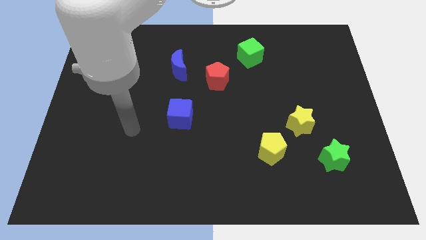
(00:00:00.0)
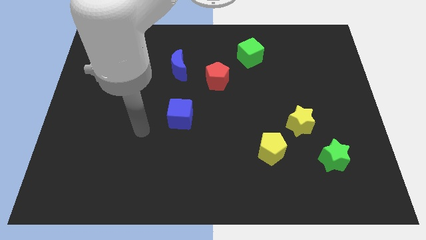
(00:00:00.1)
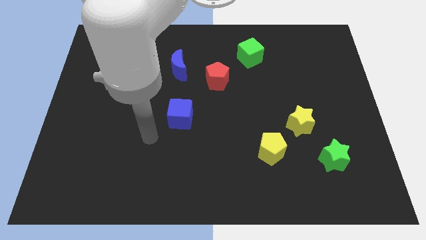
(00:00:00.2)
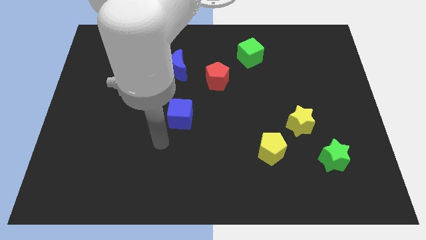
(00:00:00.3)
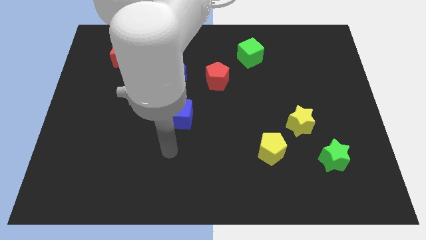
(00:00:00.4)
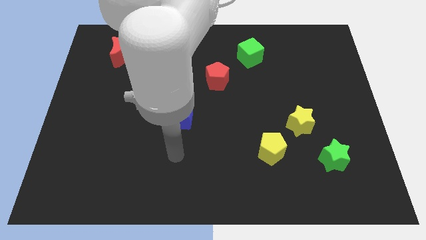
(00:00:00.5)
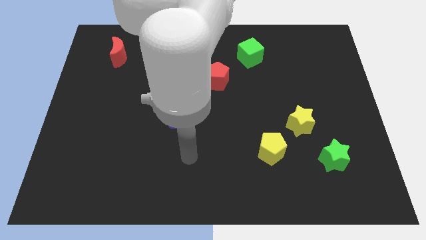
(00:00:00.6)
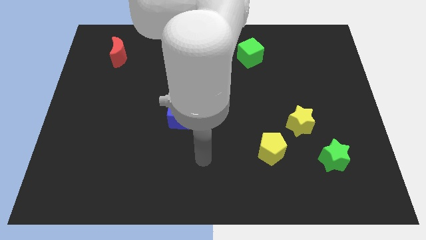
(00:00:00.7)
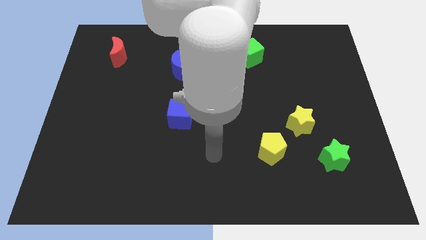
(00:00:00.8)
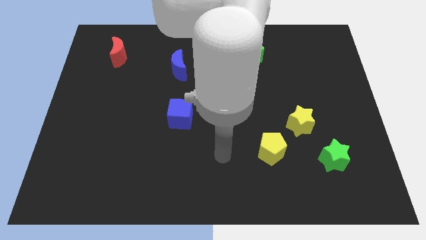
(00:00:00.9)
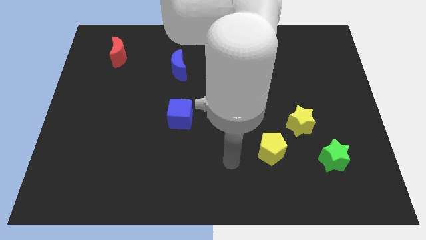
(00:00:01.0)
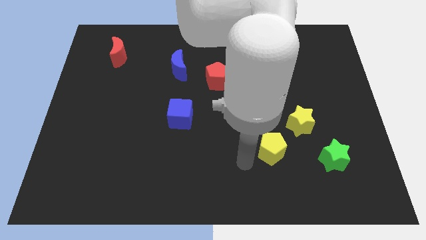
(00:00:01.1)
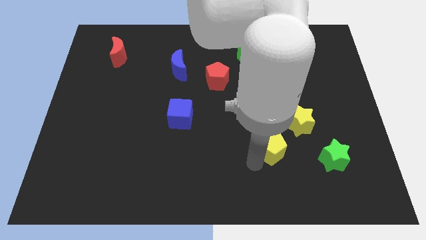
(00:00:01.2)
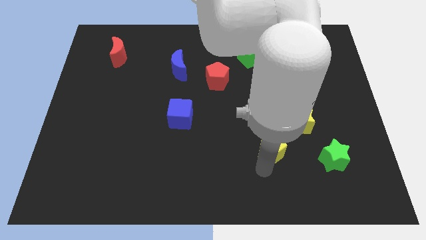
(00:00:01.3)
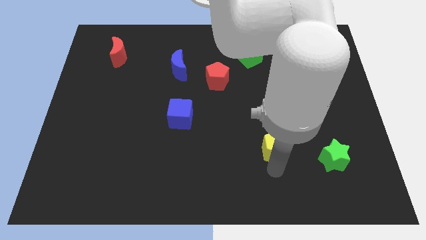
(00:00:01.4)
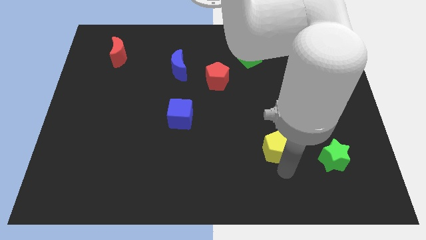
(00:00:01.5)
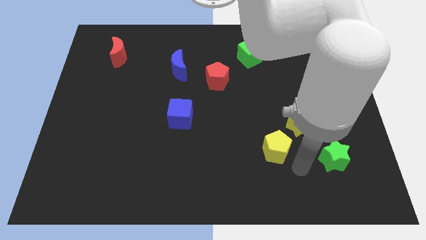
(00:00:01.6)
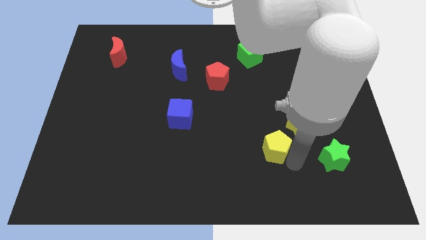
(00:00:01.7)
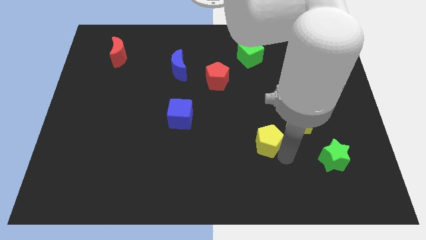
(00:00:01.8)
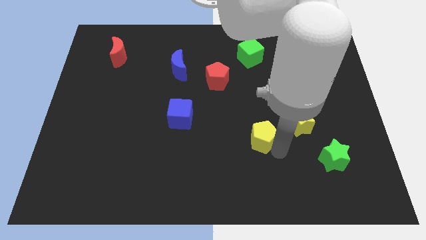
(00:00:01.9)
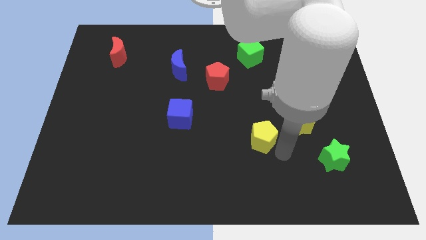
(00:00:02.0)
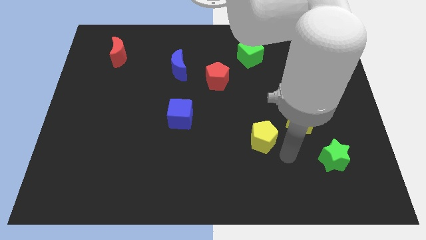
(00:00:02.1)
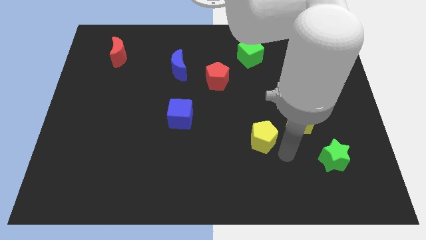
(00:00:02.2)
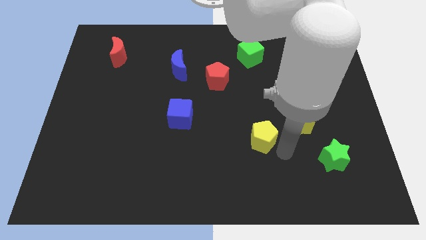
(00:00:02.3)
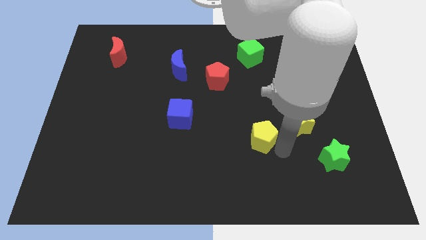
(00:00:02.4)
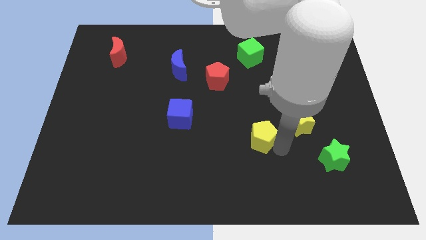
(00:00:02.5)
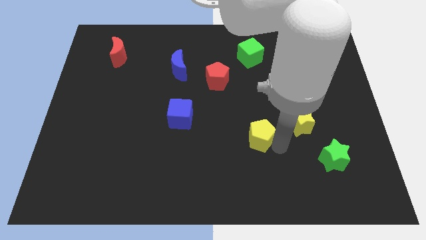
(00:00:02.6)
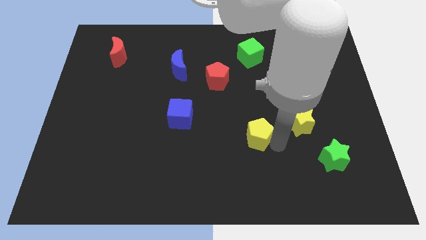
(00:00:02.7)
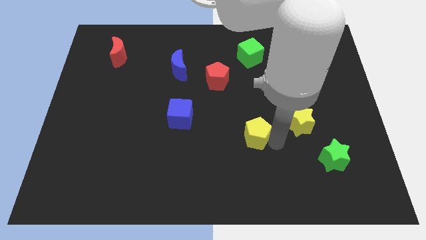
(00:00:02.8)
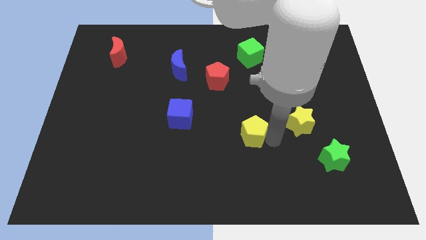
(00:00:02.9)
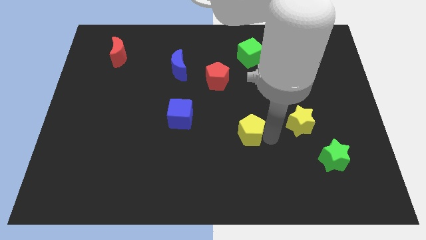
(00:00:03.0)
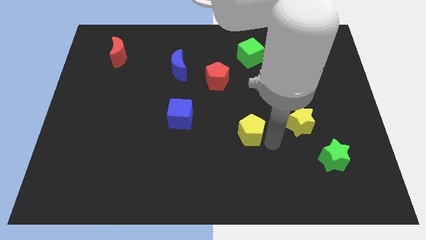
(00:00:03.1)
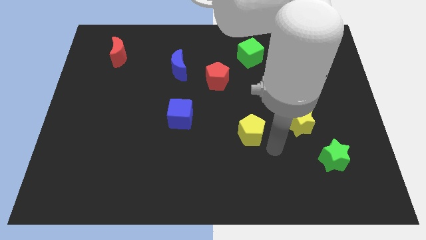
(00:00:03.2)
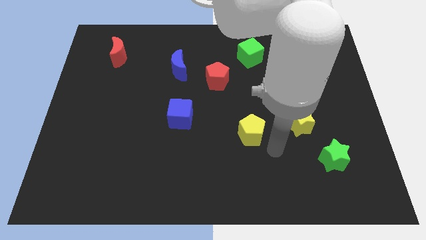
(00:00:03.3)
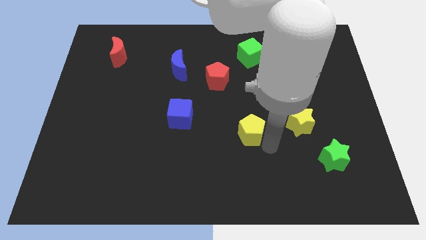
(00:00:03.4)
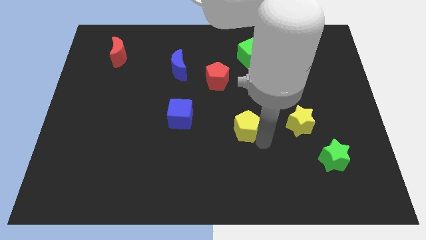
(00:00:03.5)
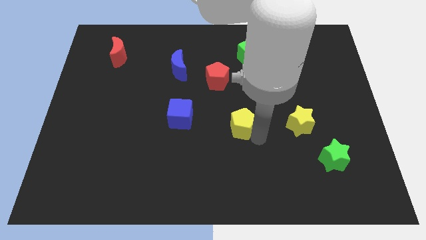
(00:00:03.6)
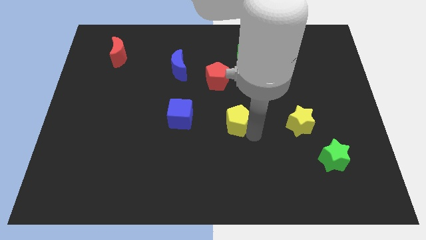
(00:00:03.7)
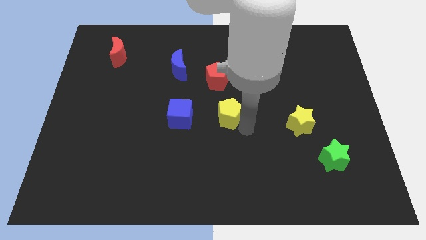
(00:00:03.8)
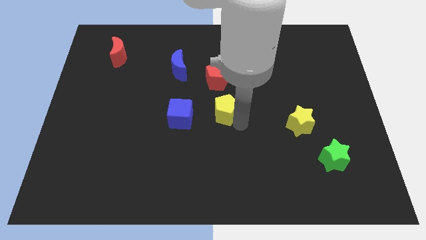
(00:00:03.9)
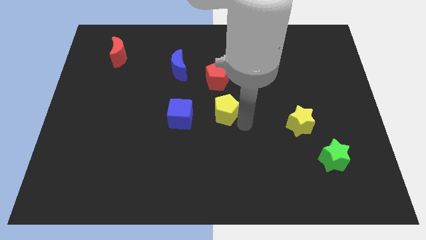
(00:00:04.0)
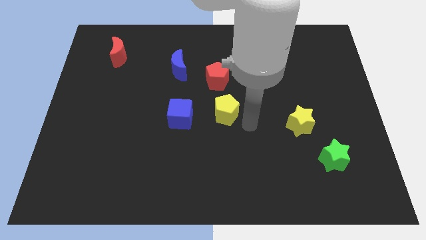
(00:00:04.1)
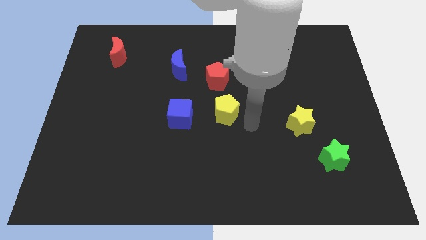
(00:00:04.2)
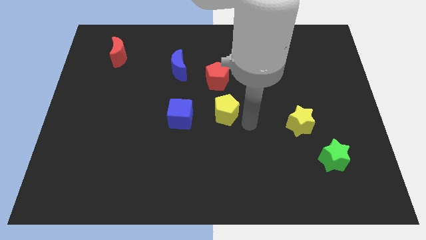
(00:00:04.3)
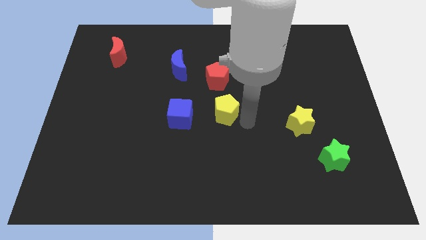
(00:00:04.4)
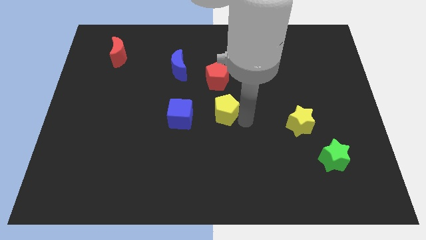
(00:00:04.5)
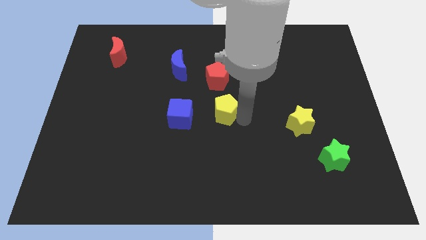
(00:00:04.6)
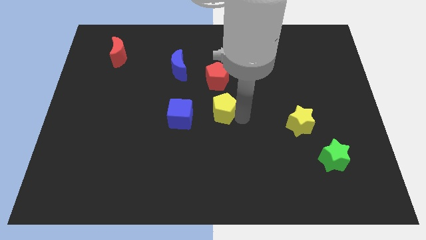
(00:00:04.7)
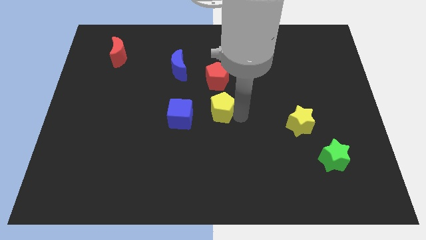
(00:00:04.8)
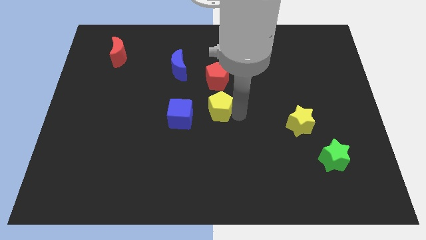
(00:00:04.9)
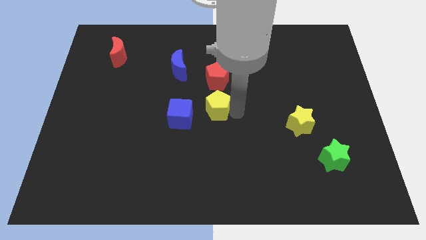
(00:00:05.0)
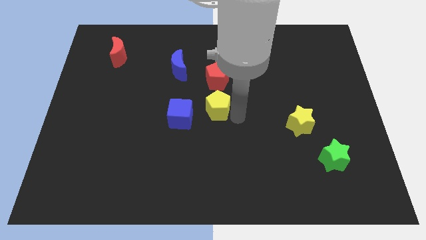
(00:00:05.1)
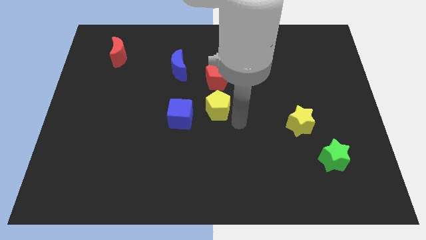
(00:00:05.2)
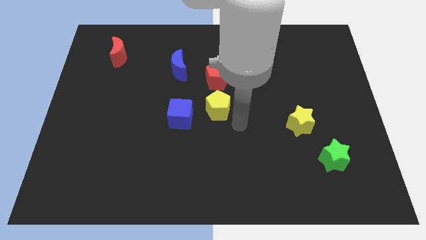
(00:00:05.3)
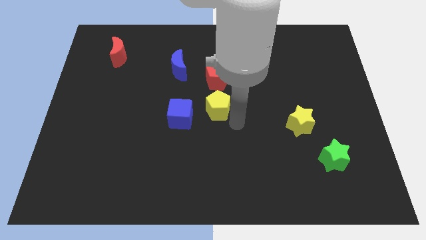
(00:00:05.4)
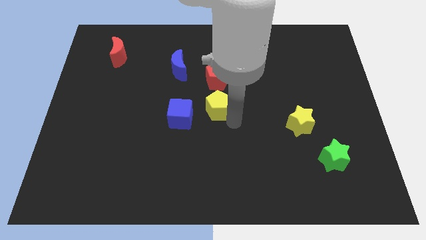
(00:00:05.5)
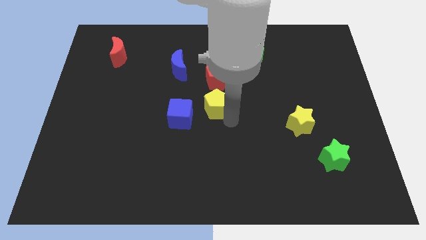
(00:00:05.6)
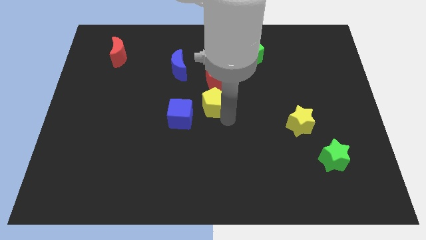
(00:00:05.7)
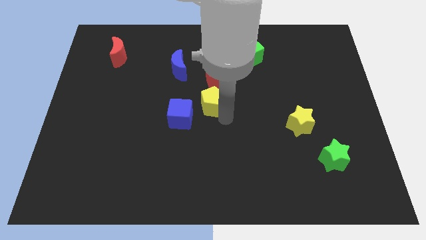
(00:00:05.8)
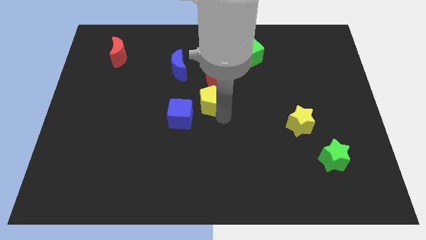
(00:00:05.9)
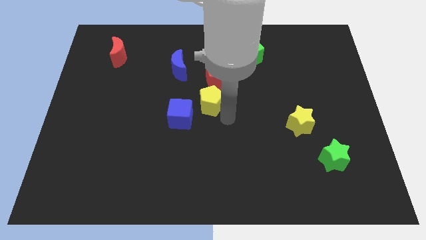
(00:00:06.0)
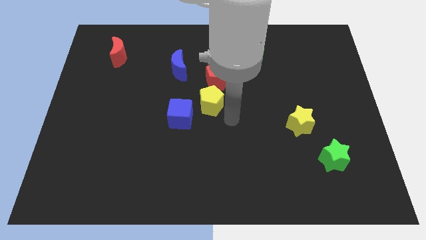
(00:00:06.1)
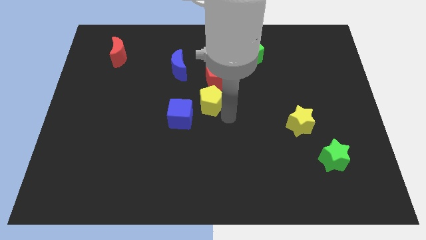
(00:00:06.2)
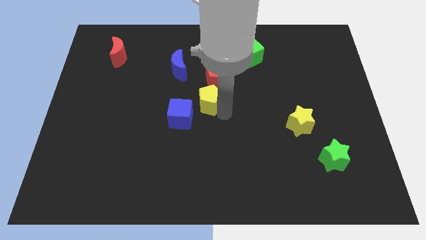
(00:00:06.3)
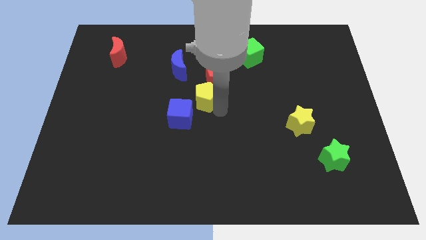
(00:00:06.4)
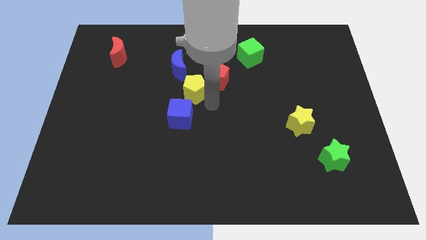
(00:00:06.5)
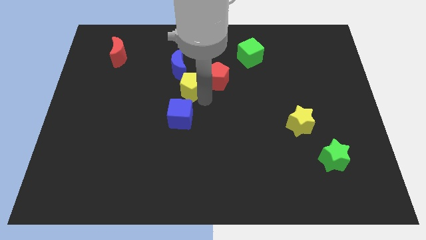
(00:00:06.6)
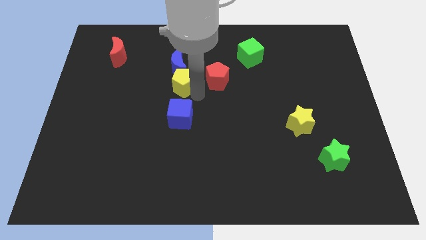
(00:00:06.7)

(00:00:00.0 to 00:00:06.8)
put the yellow pentagon next to the blue moon
